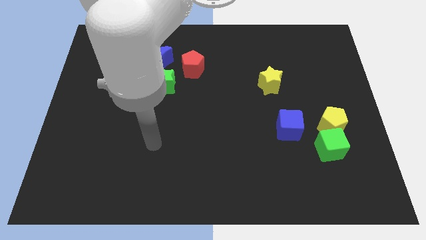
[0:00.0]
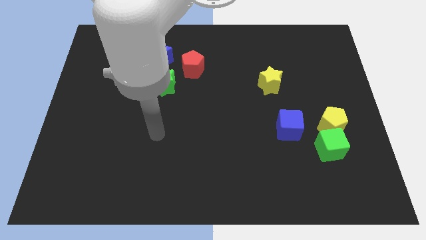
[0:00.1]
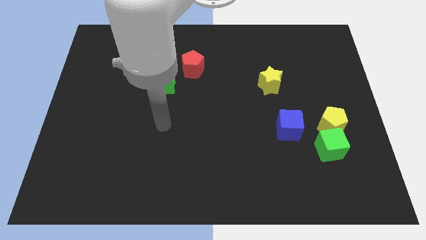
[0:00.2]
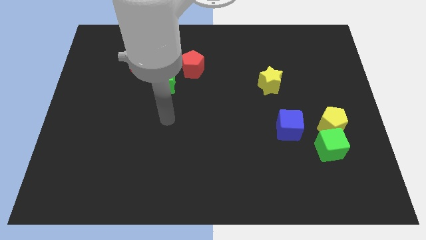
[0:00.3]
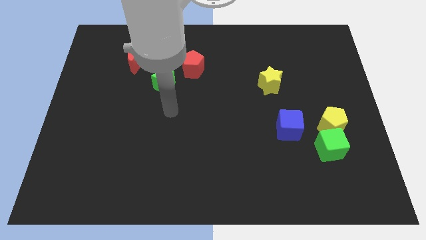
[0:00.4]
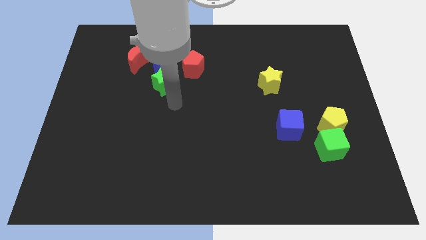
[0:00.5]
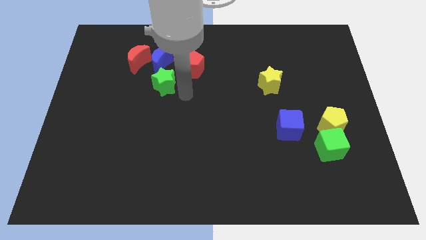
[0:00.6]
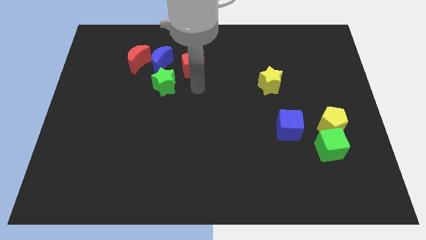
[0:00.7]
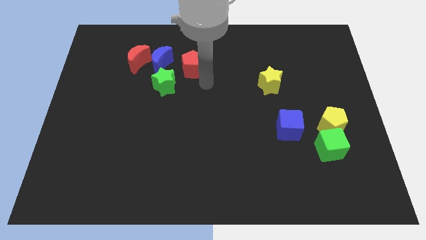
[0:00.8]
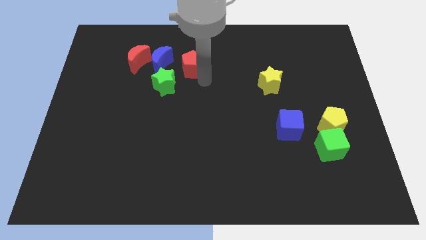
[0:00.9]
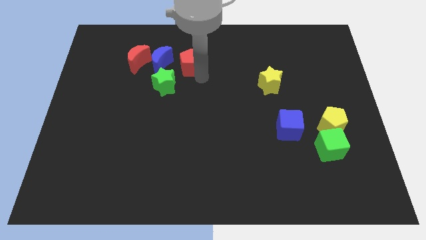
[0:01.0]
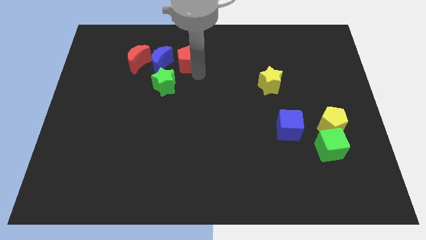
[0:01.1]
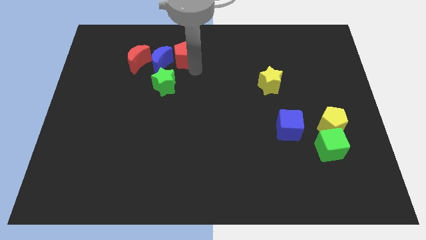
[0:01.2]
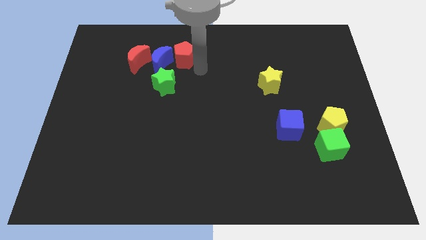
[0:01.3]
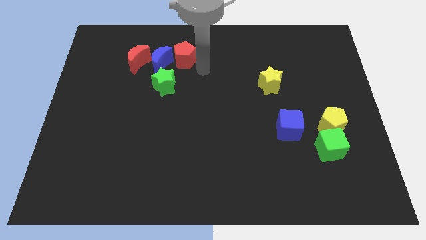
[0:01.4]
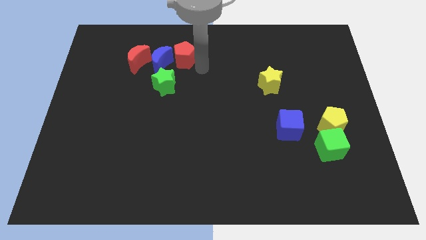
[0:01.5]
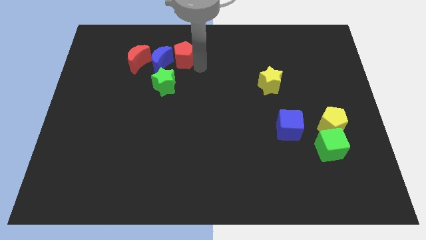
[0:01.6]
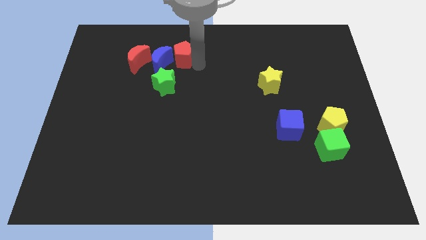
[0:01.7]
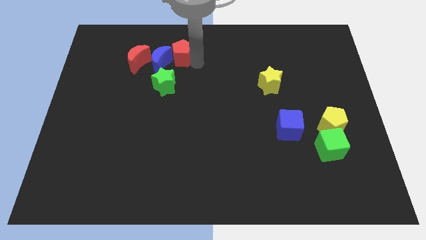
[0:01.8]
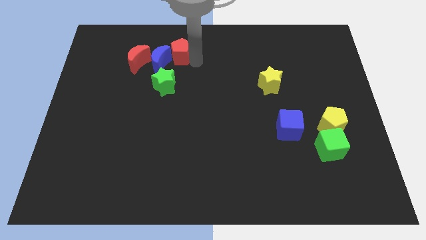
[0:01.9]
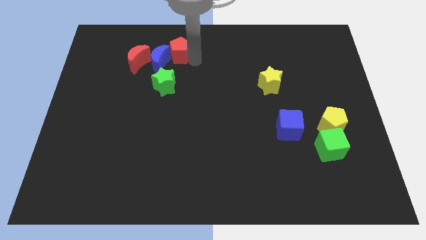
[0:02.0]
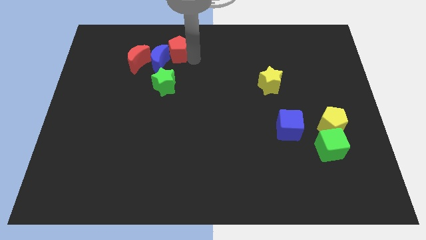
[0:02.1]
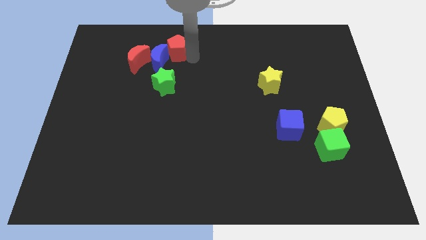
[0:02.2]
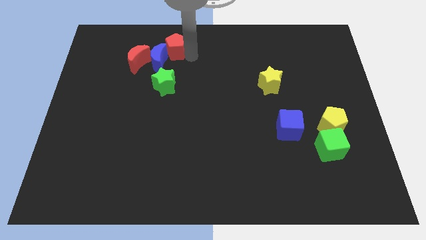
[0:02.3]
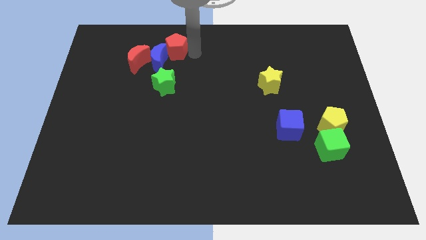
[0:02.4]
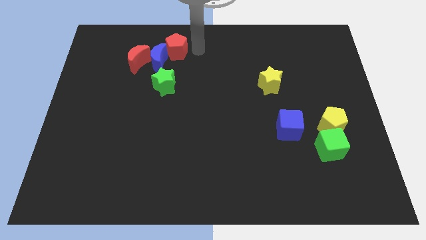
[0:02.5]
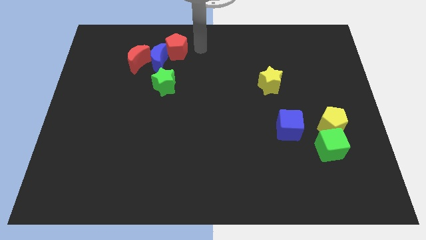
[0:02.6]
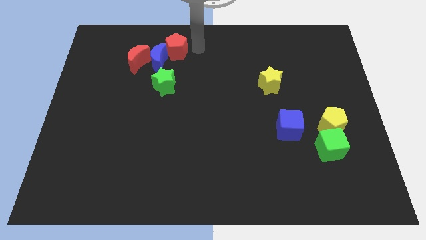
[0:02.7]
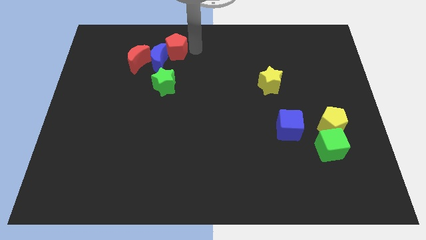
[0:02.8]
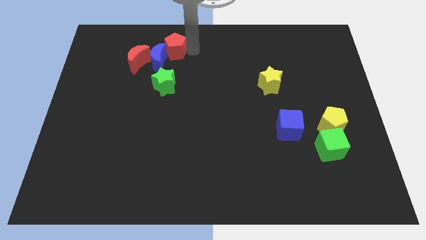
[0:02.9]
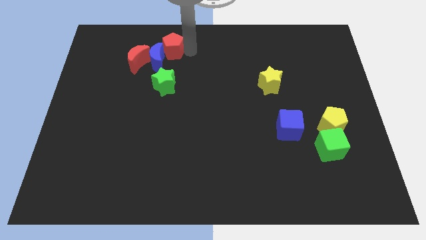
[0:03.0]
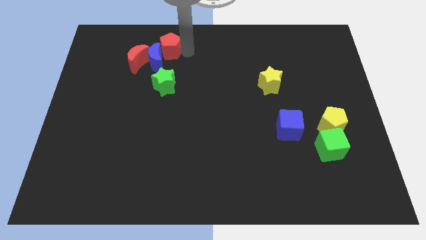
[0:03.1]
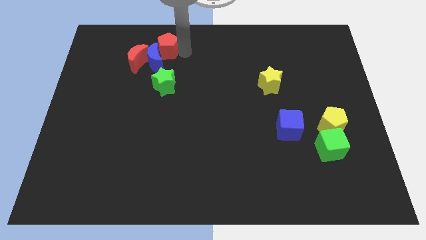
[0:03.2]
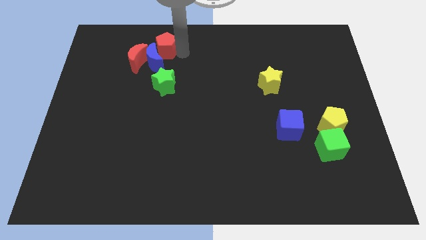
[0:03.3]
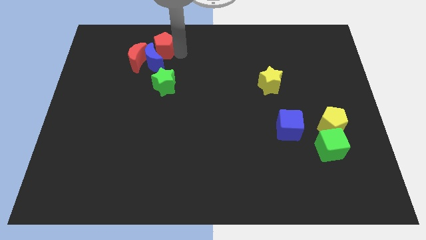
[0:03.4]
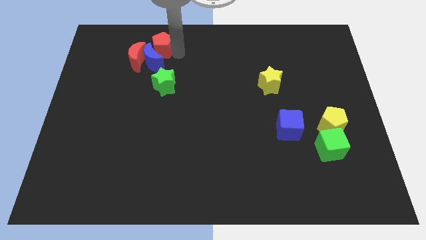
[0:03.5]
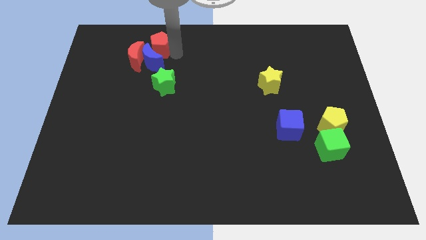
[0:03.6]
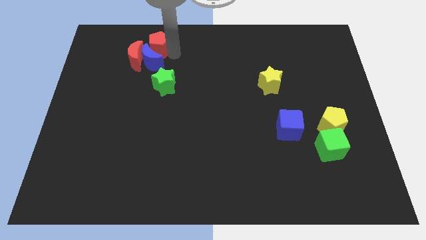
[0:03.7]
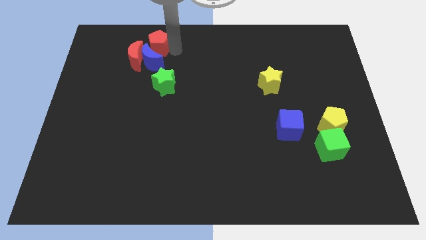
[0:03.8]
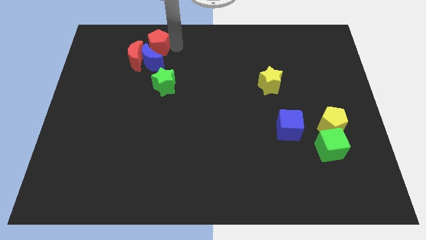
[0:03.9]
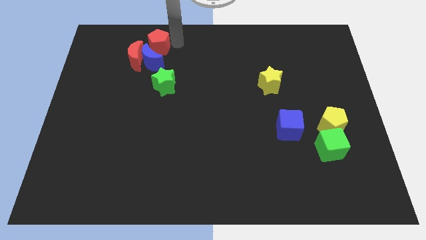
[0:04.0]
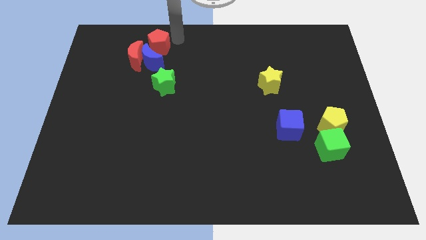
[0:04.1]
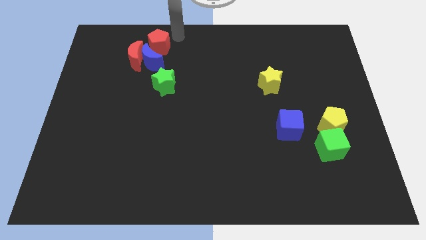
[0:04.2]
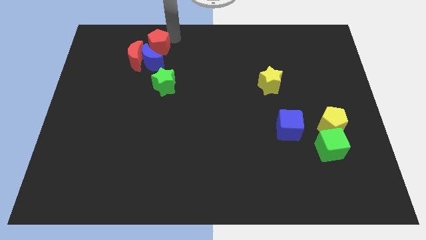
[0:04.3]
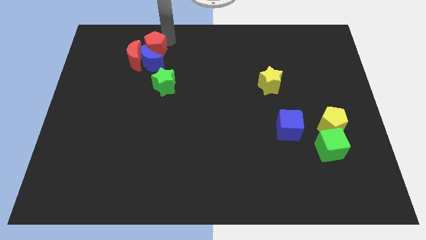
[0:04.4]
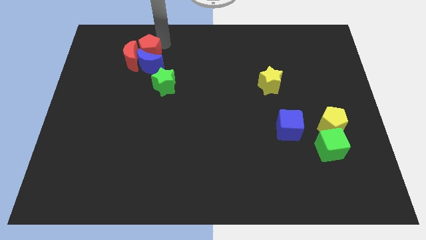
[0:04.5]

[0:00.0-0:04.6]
push the red pentagon to the red moon

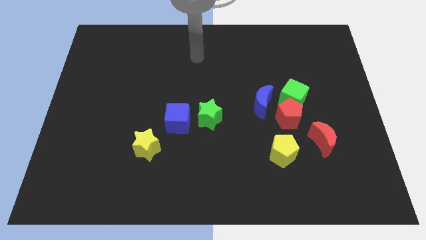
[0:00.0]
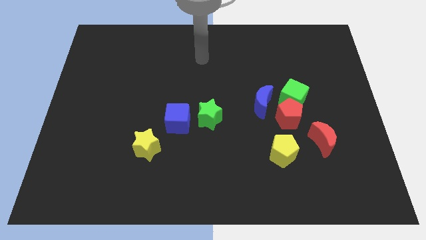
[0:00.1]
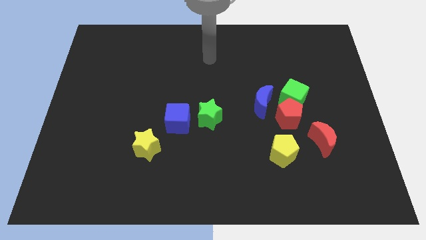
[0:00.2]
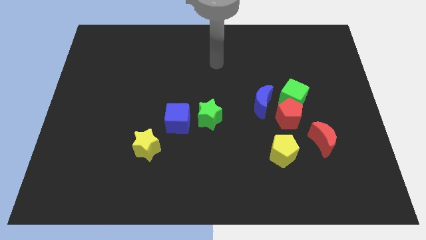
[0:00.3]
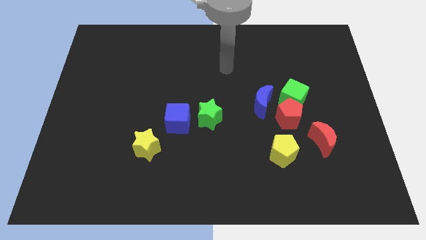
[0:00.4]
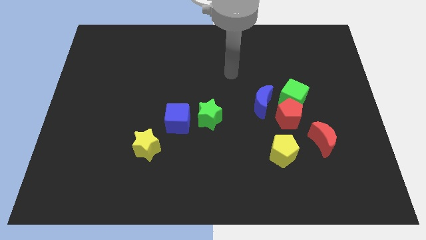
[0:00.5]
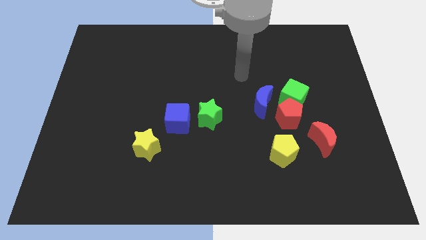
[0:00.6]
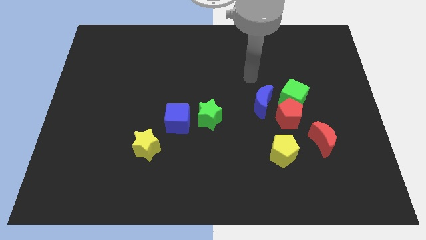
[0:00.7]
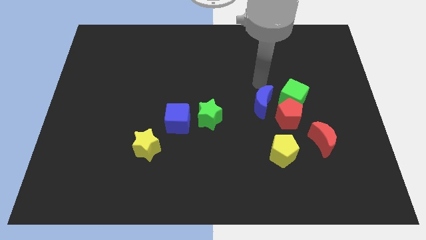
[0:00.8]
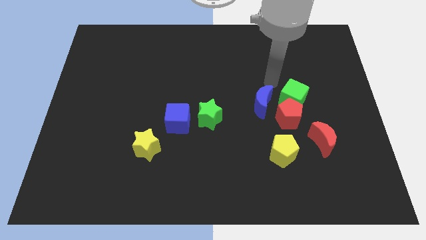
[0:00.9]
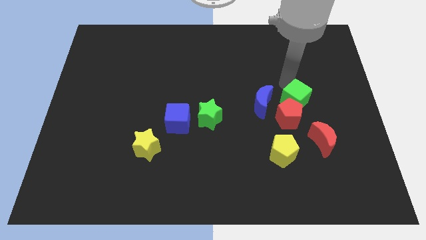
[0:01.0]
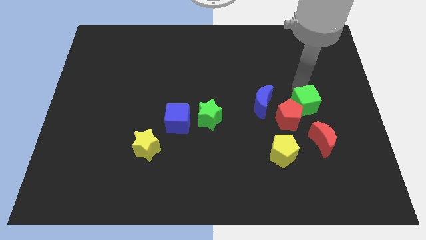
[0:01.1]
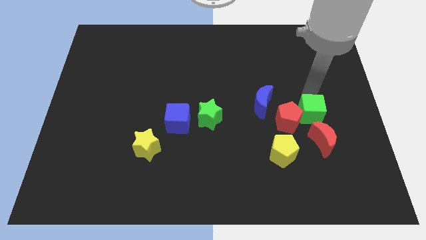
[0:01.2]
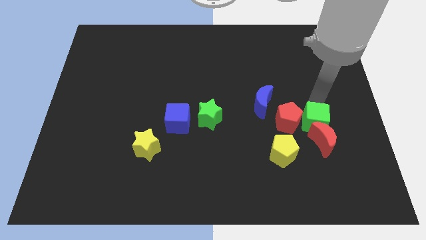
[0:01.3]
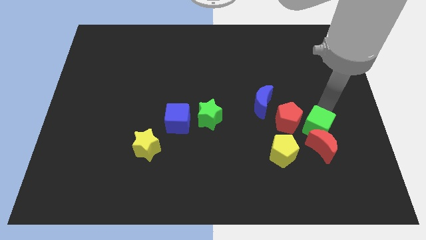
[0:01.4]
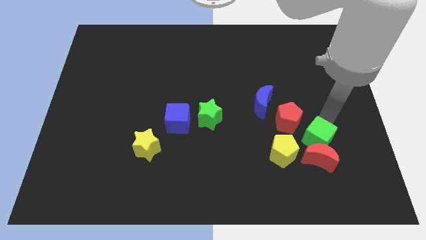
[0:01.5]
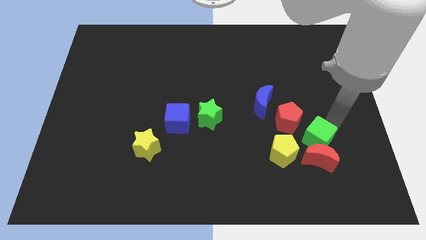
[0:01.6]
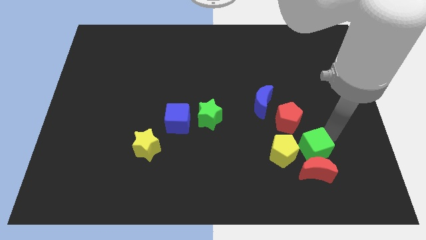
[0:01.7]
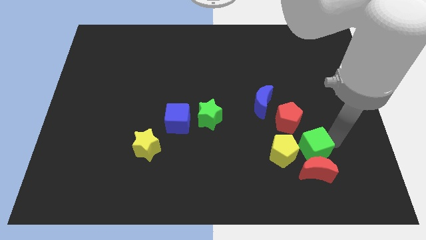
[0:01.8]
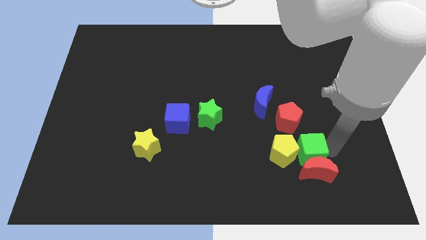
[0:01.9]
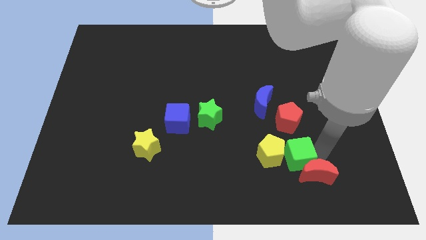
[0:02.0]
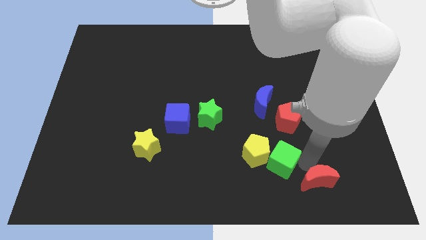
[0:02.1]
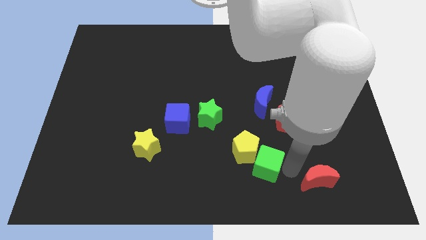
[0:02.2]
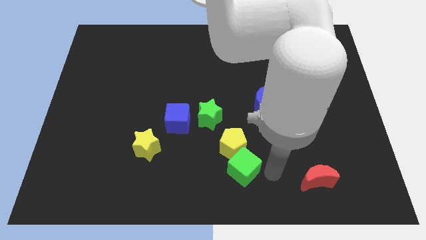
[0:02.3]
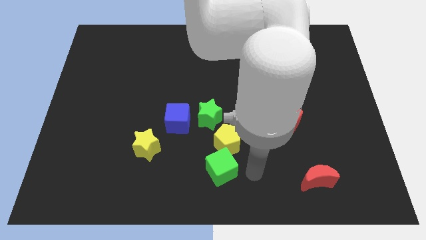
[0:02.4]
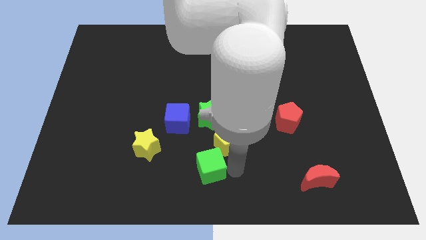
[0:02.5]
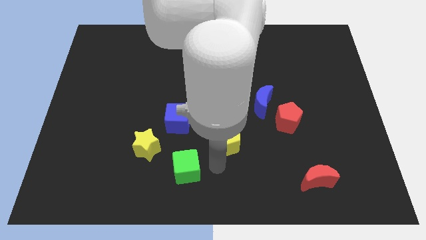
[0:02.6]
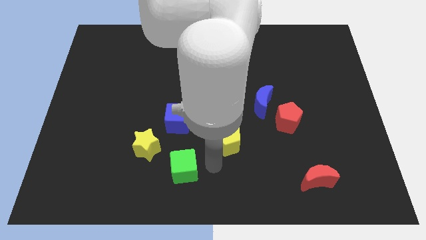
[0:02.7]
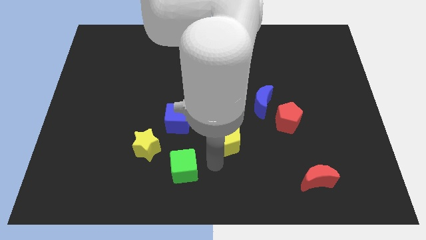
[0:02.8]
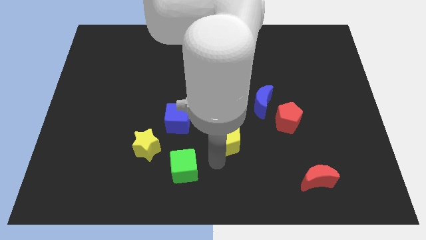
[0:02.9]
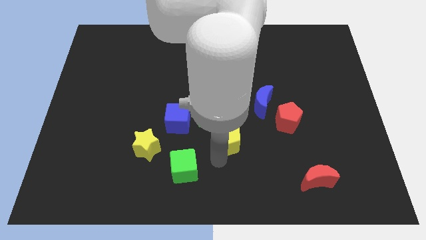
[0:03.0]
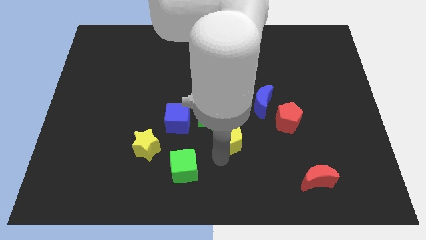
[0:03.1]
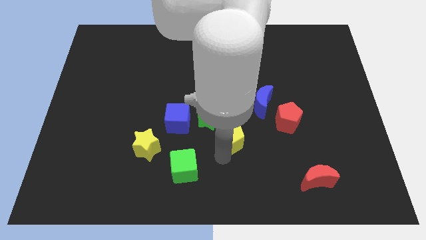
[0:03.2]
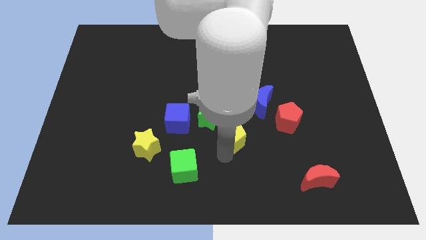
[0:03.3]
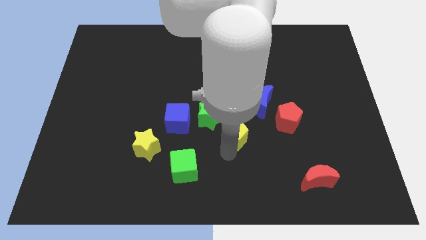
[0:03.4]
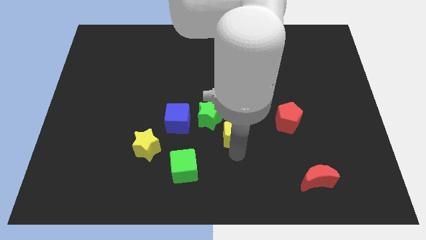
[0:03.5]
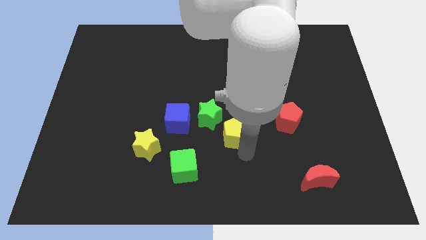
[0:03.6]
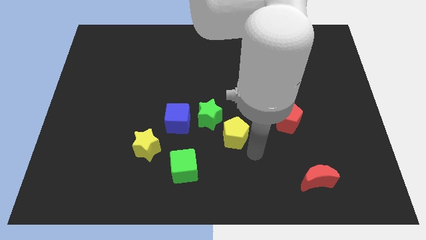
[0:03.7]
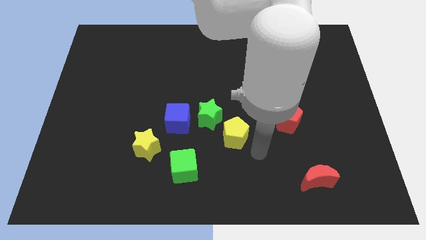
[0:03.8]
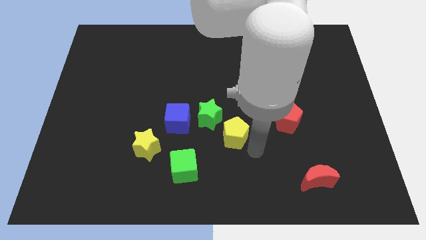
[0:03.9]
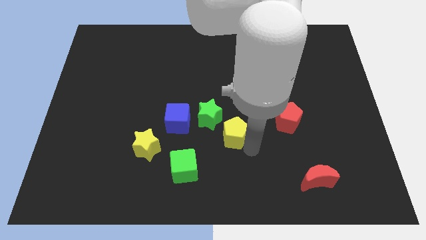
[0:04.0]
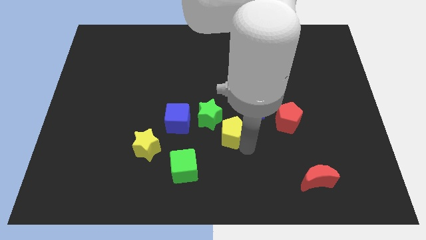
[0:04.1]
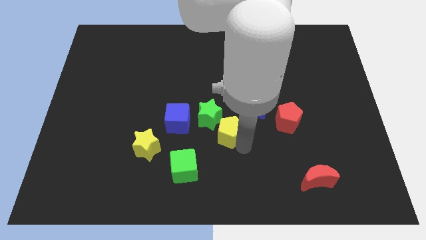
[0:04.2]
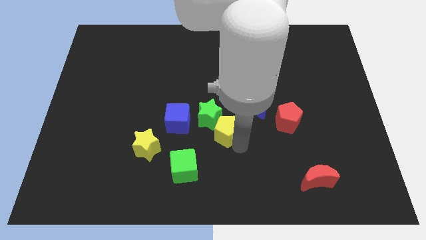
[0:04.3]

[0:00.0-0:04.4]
push the yellow pentagon close to the green star
